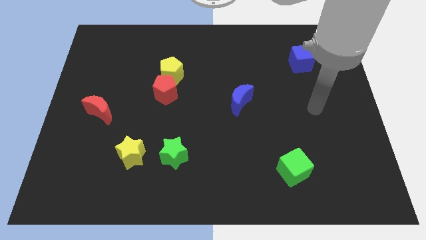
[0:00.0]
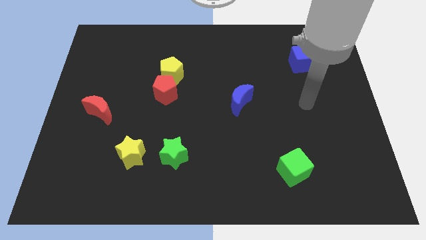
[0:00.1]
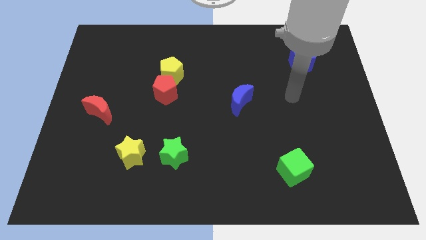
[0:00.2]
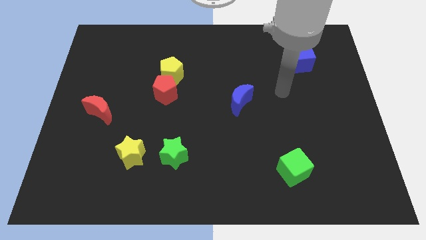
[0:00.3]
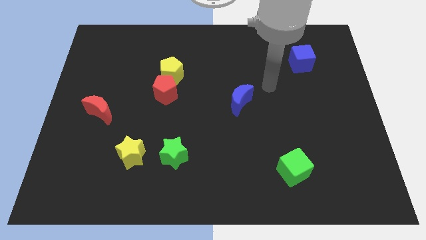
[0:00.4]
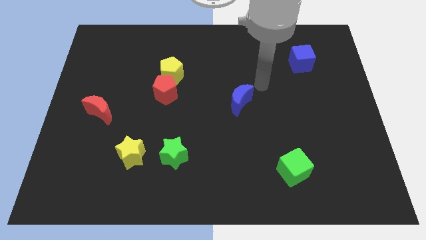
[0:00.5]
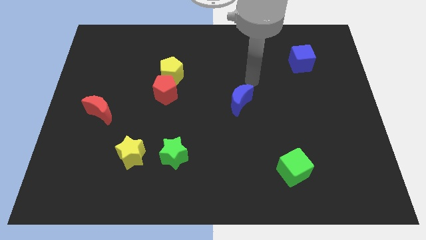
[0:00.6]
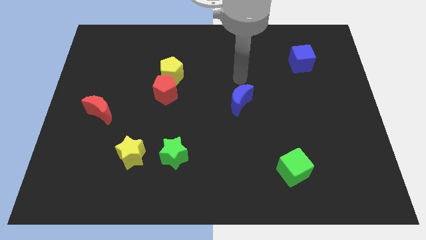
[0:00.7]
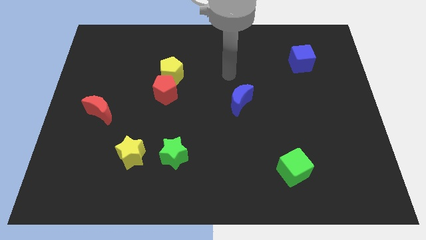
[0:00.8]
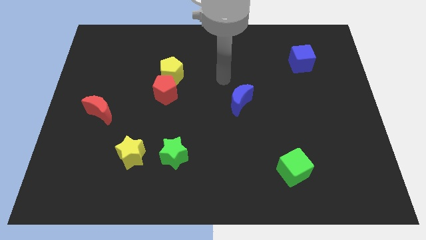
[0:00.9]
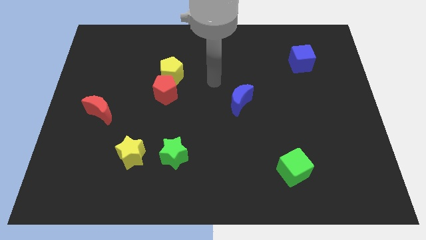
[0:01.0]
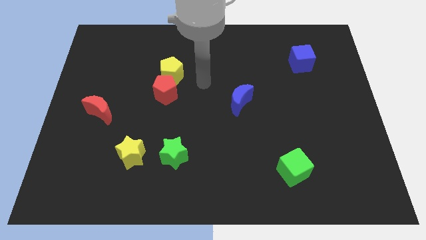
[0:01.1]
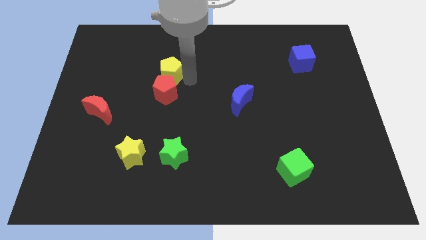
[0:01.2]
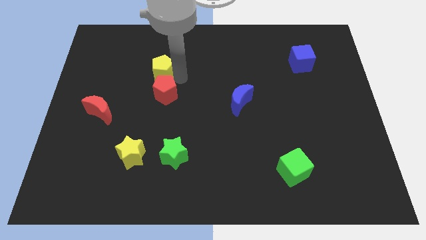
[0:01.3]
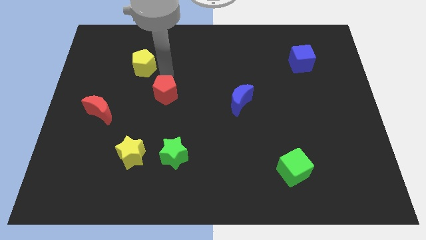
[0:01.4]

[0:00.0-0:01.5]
pull the red pentagon apart from the yellow pentagon

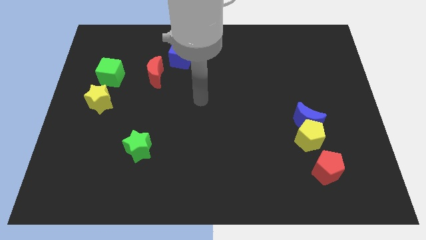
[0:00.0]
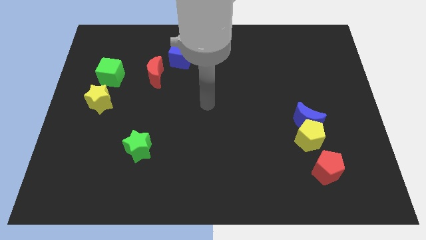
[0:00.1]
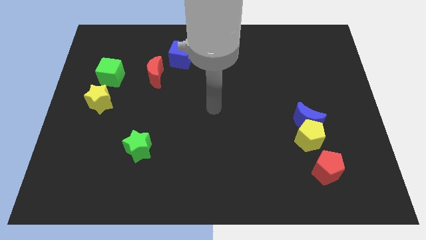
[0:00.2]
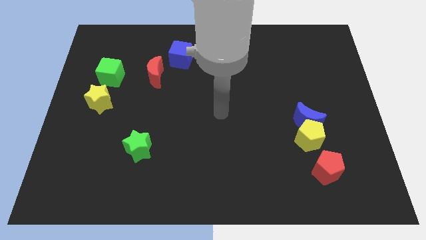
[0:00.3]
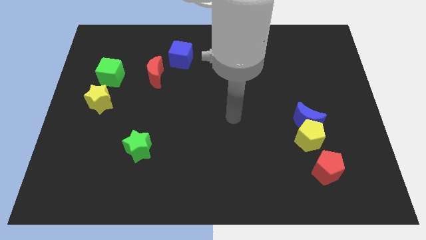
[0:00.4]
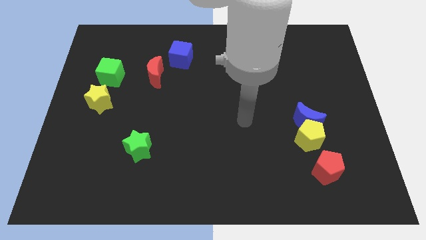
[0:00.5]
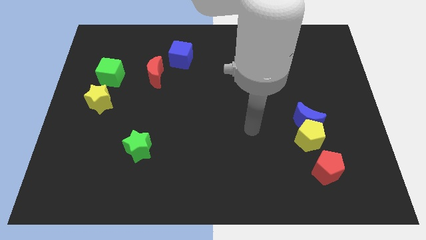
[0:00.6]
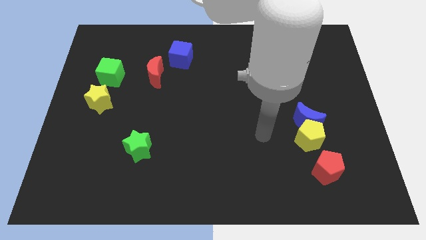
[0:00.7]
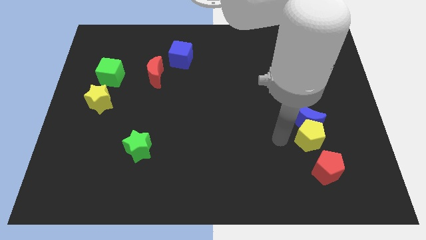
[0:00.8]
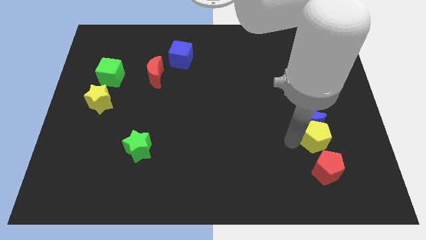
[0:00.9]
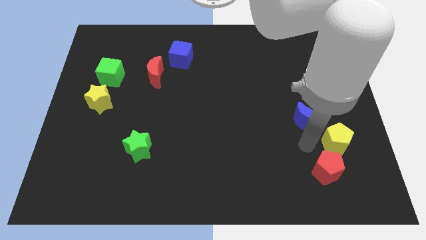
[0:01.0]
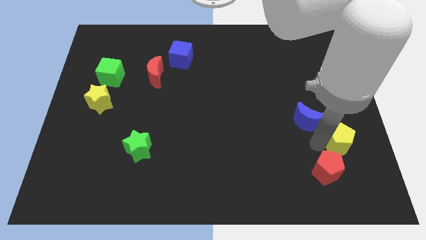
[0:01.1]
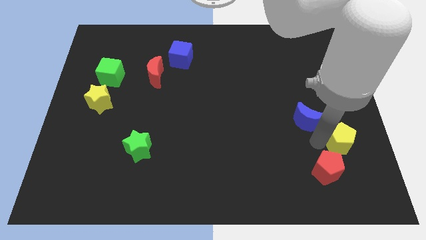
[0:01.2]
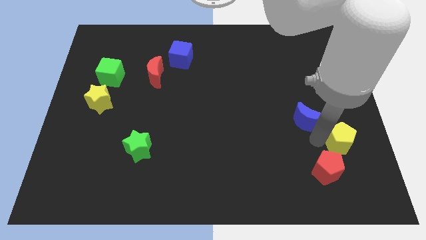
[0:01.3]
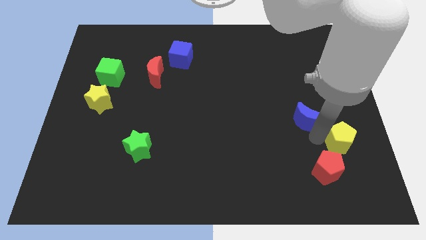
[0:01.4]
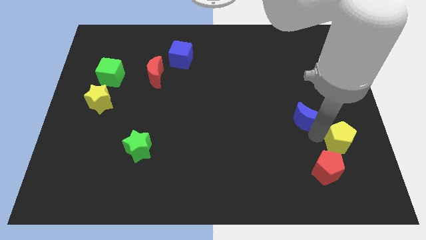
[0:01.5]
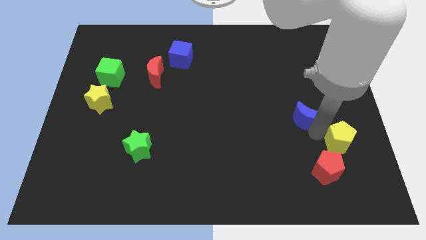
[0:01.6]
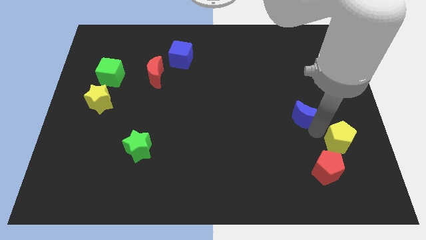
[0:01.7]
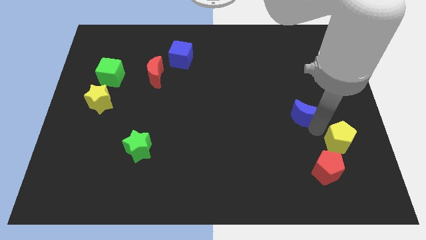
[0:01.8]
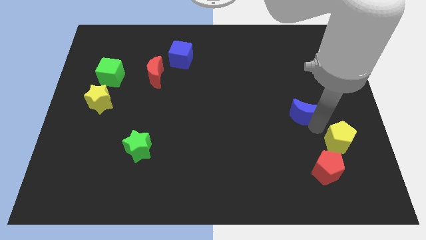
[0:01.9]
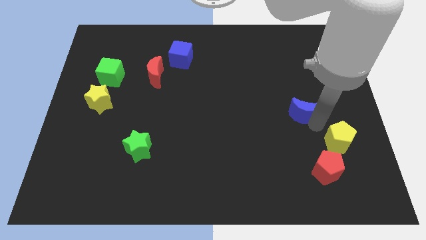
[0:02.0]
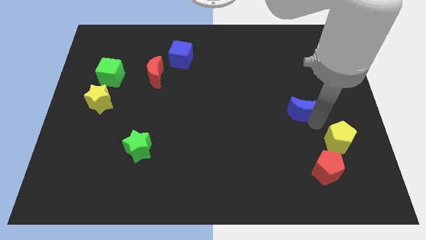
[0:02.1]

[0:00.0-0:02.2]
separate the blue moon from the yellow pentagon

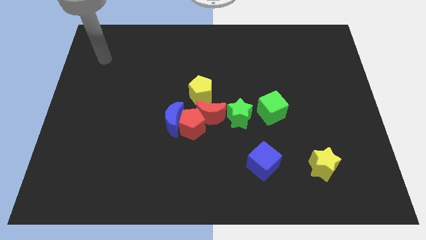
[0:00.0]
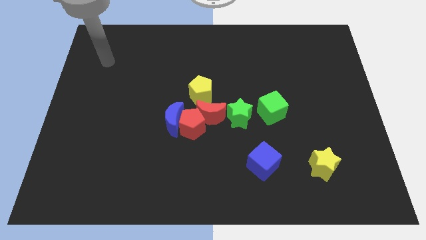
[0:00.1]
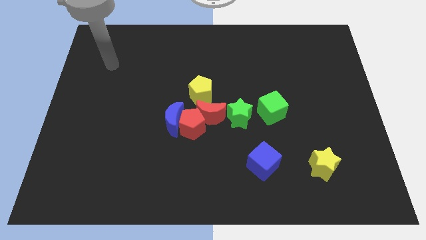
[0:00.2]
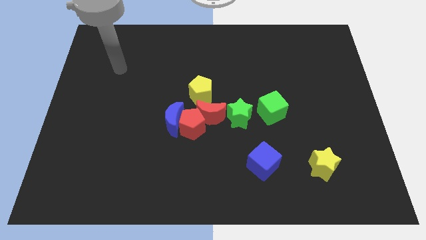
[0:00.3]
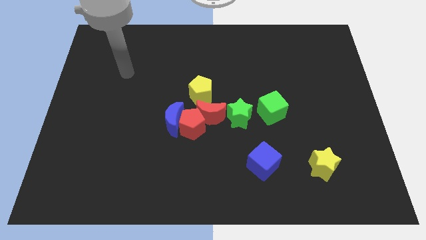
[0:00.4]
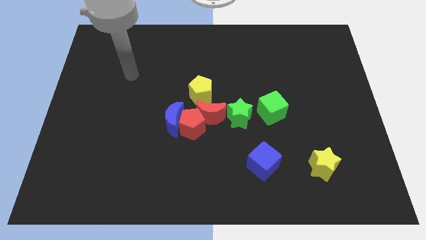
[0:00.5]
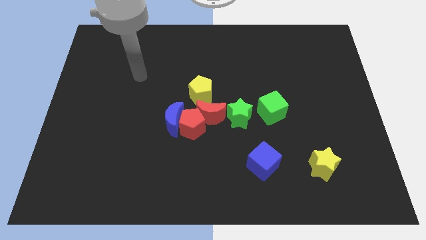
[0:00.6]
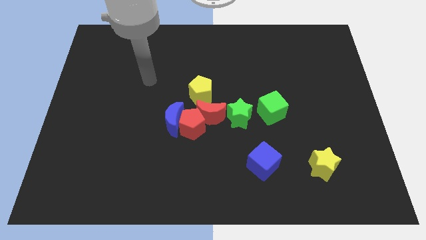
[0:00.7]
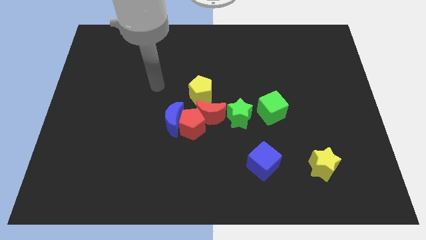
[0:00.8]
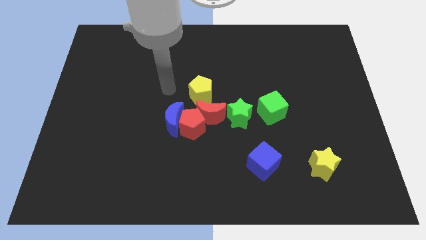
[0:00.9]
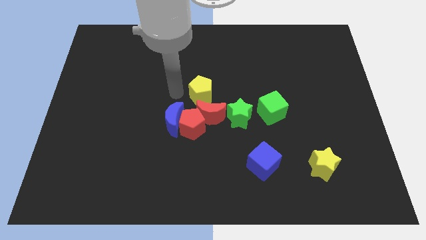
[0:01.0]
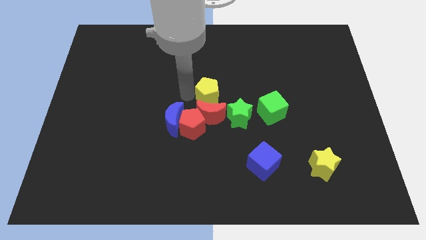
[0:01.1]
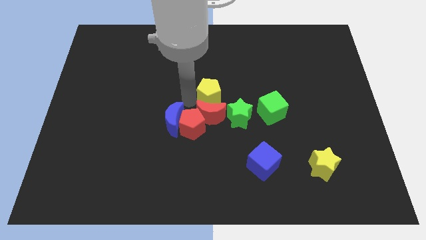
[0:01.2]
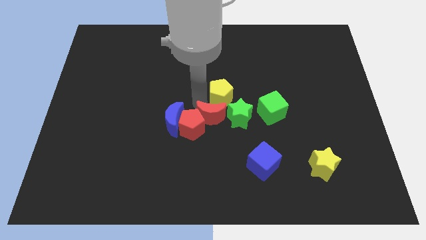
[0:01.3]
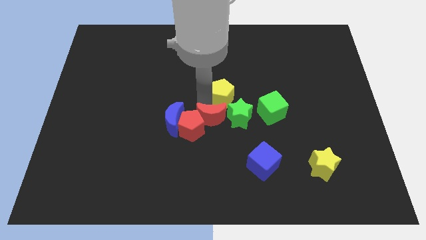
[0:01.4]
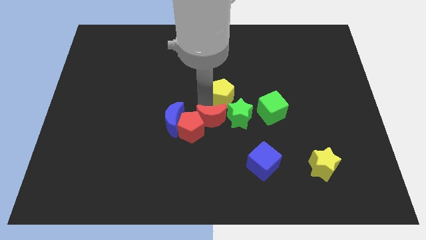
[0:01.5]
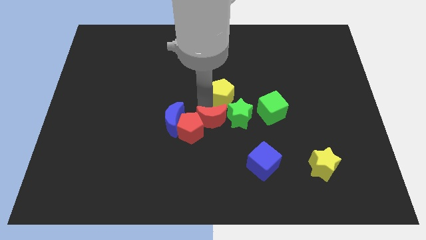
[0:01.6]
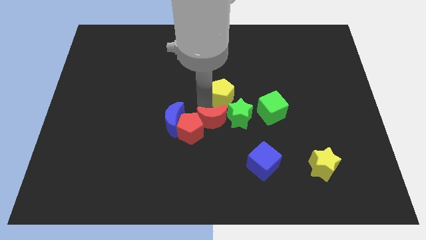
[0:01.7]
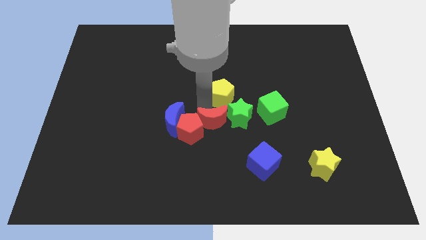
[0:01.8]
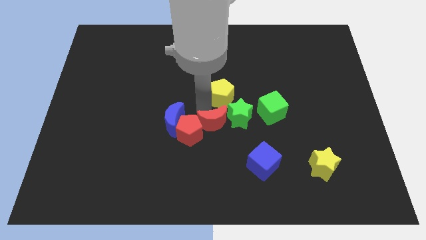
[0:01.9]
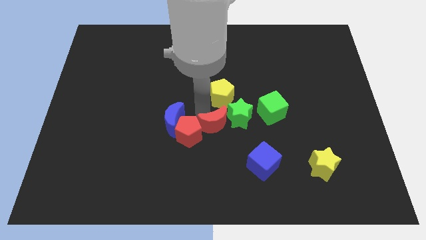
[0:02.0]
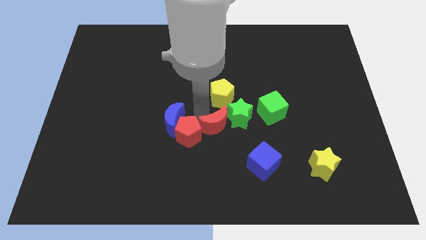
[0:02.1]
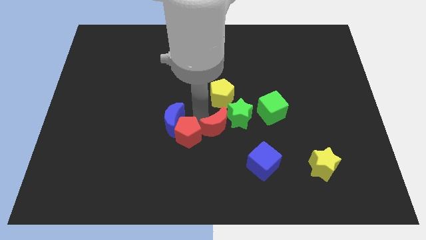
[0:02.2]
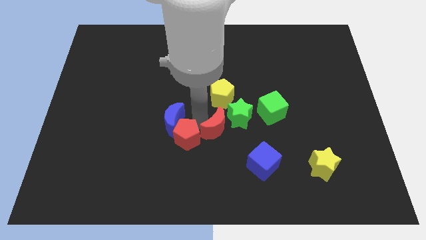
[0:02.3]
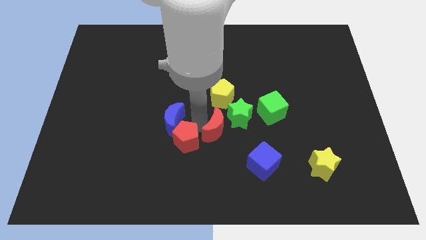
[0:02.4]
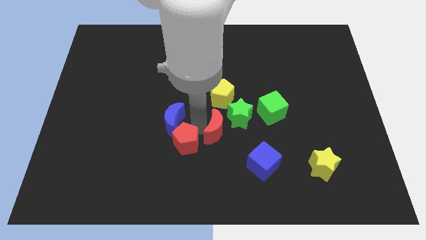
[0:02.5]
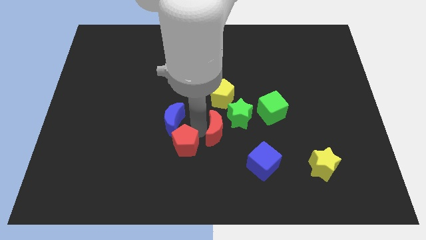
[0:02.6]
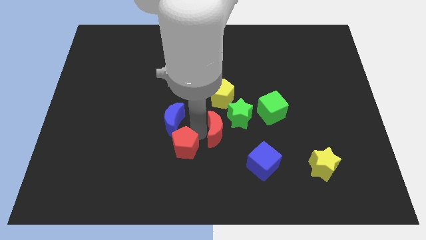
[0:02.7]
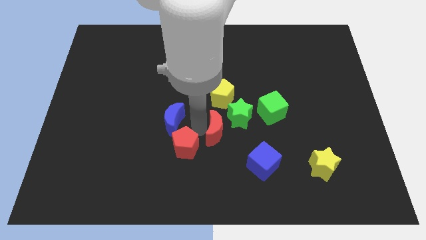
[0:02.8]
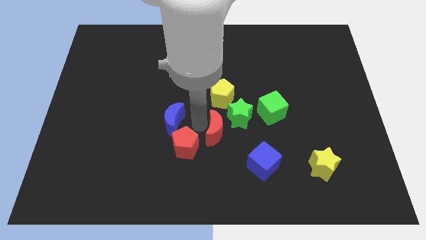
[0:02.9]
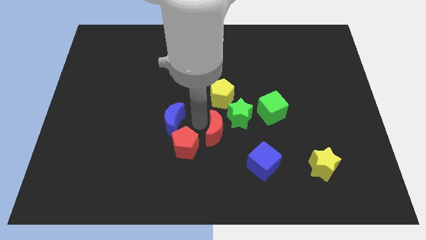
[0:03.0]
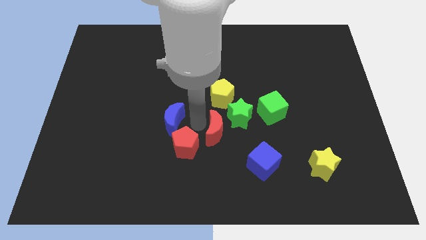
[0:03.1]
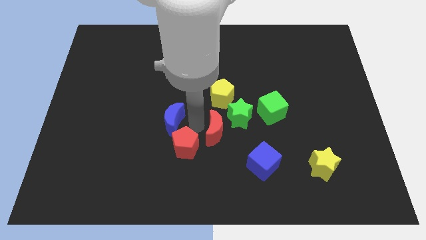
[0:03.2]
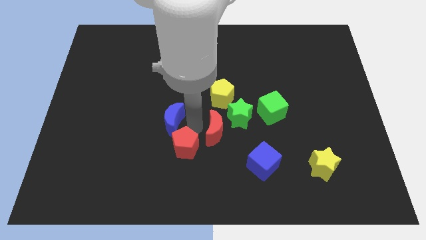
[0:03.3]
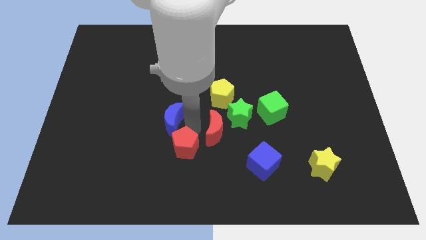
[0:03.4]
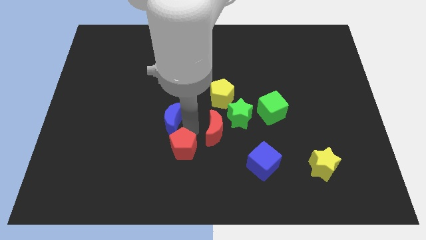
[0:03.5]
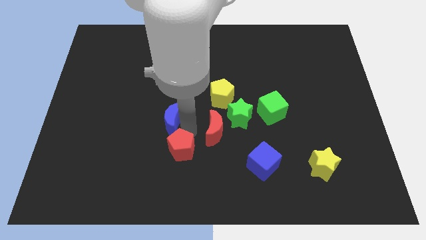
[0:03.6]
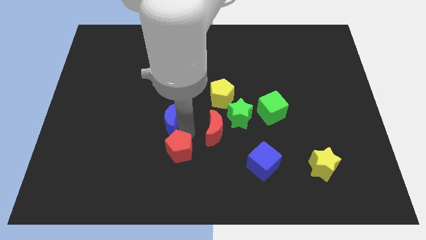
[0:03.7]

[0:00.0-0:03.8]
pull the red pentagon apart from the group of blocks

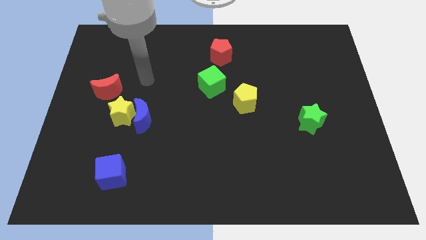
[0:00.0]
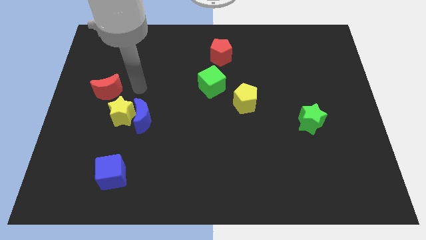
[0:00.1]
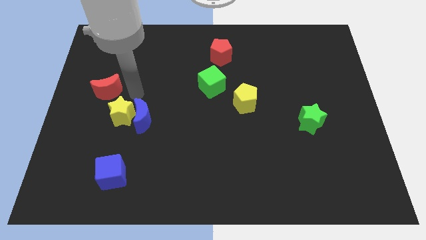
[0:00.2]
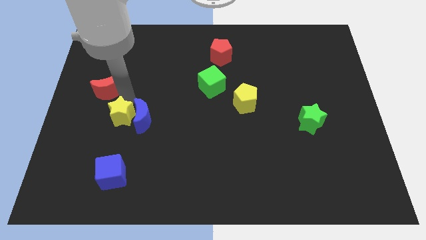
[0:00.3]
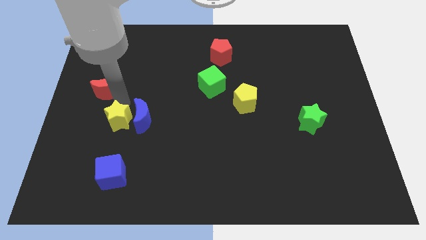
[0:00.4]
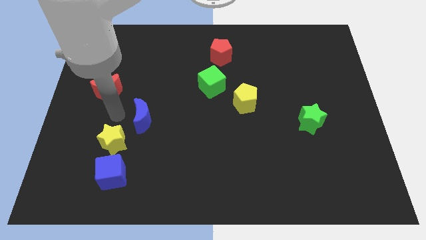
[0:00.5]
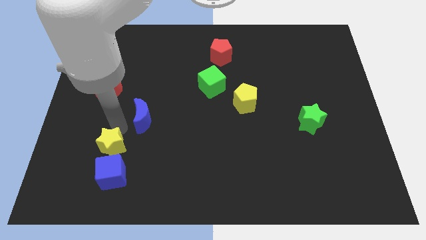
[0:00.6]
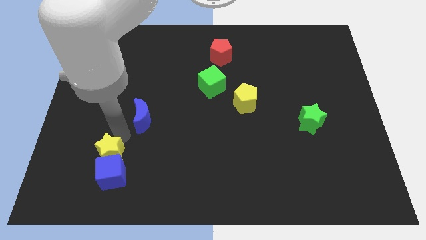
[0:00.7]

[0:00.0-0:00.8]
pull the blue moon apart from the yellow star

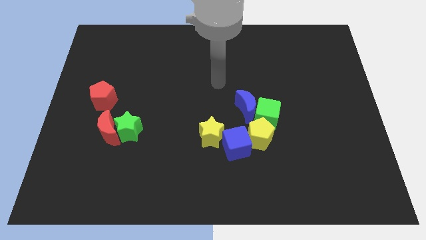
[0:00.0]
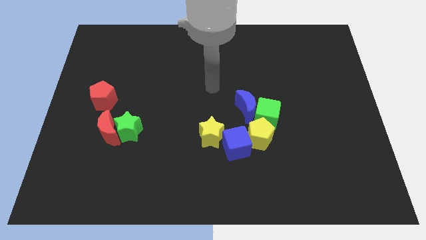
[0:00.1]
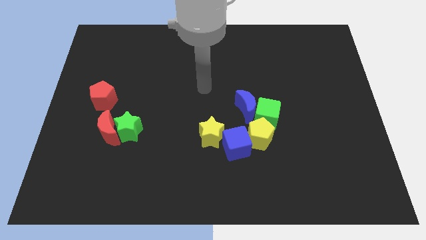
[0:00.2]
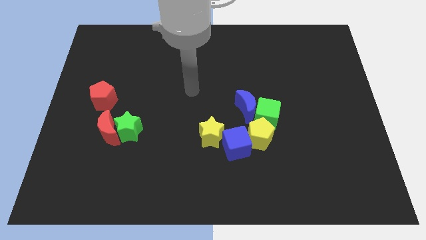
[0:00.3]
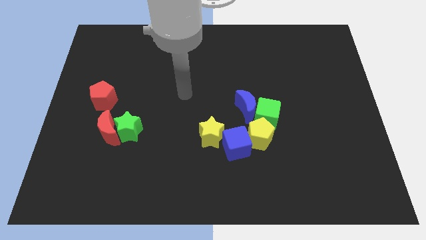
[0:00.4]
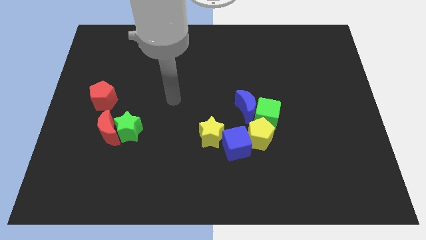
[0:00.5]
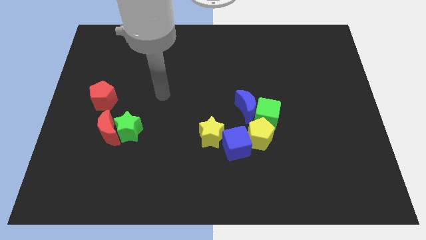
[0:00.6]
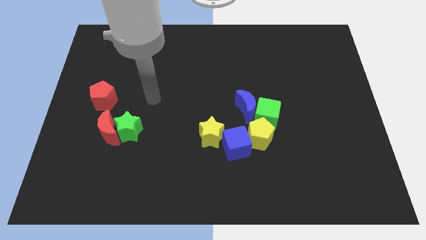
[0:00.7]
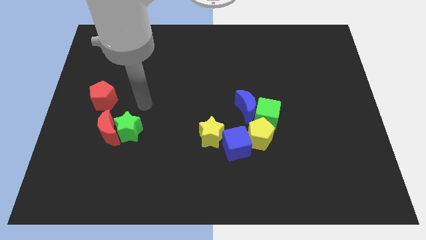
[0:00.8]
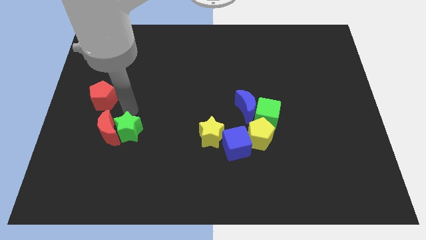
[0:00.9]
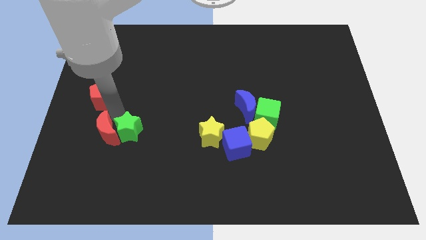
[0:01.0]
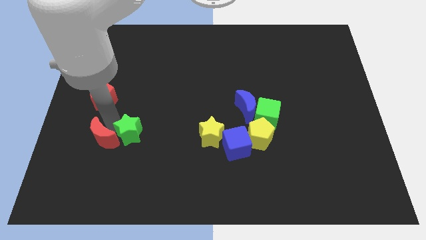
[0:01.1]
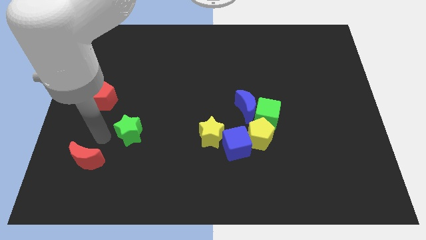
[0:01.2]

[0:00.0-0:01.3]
move the green star away from the red moon
